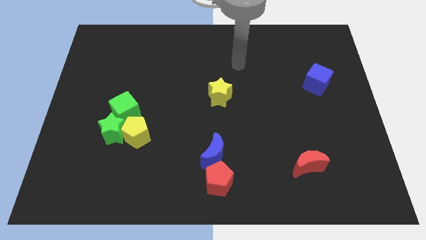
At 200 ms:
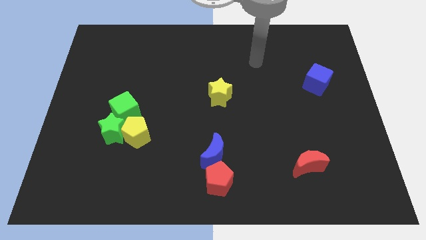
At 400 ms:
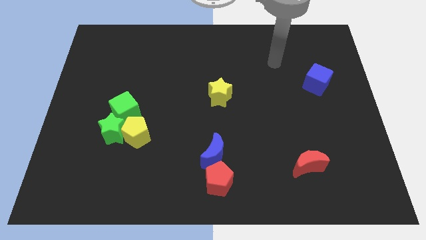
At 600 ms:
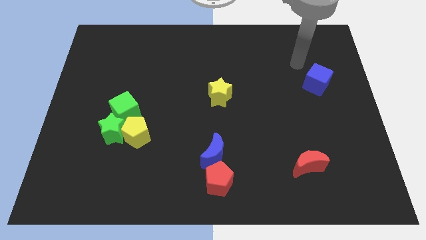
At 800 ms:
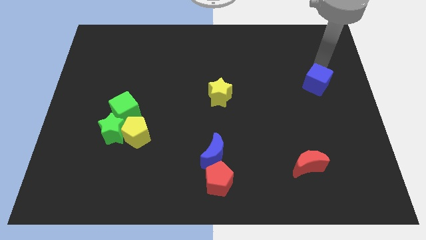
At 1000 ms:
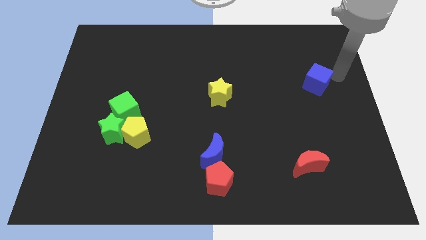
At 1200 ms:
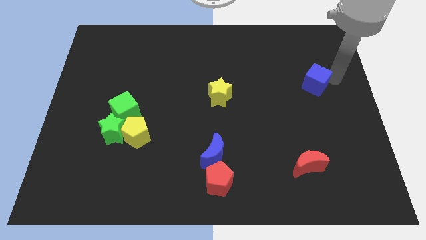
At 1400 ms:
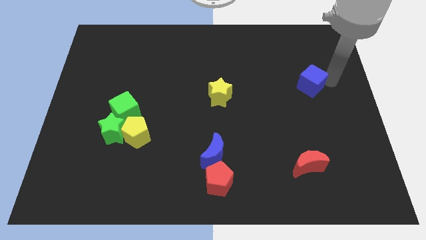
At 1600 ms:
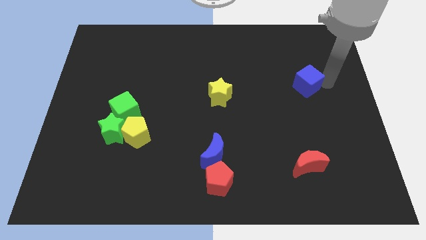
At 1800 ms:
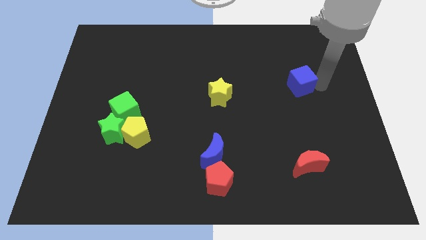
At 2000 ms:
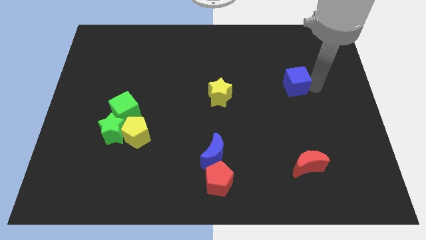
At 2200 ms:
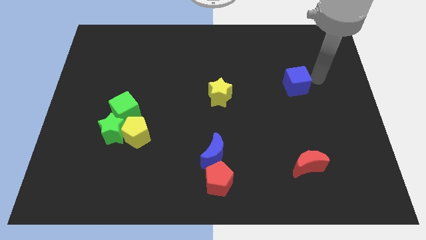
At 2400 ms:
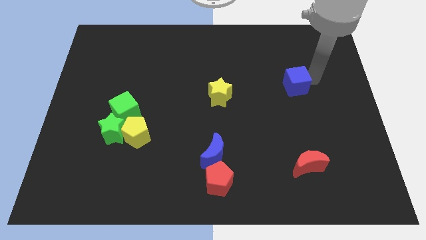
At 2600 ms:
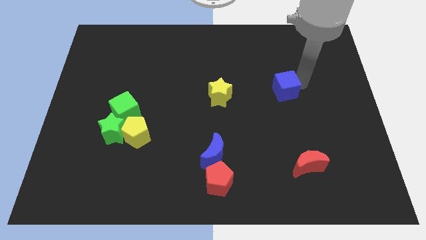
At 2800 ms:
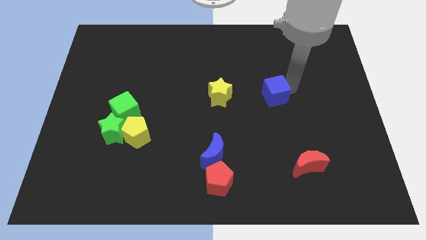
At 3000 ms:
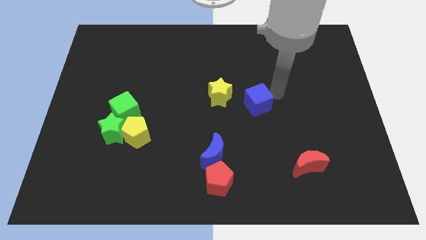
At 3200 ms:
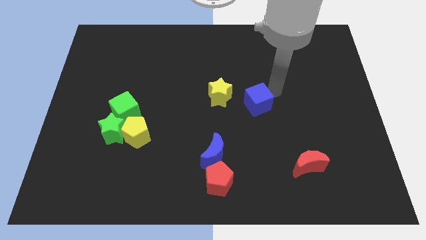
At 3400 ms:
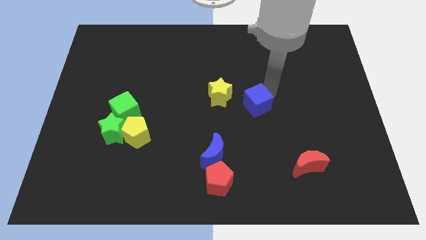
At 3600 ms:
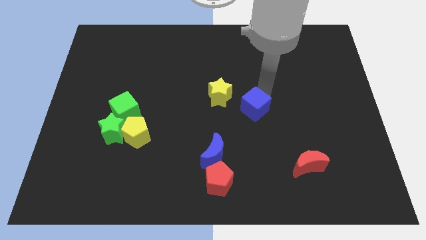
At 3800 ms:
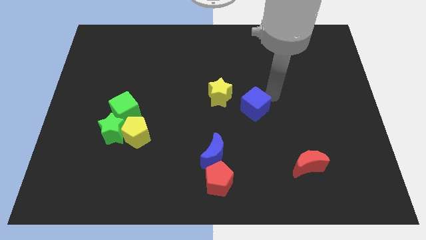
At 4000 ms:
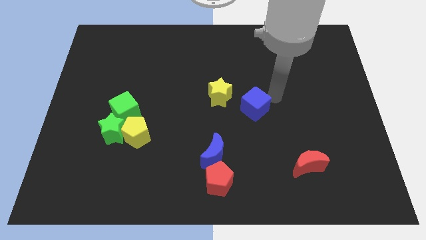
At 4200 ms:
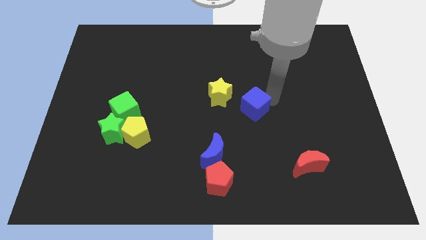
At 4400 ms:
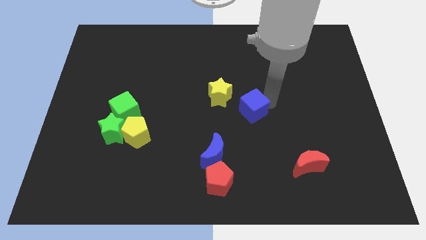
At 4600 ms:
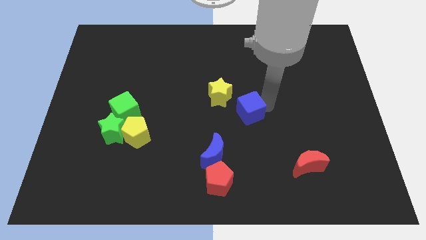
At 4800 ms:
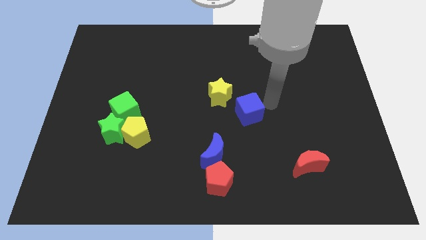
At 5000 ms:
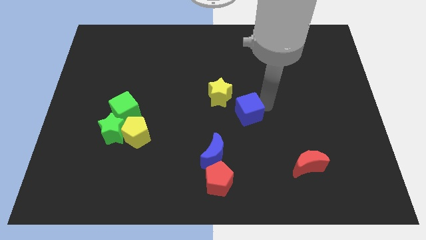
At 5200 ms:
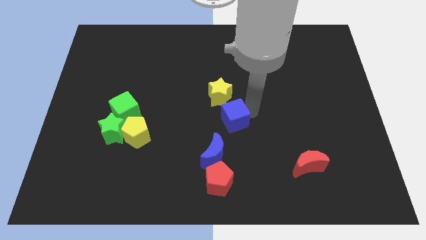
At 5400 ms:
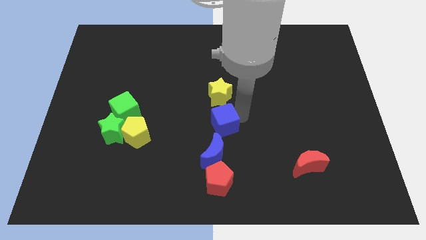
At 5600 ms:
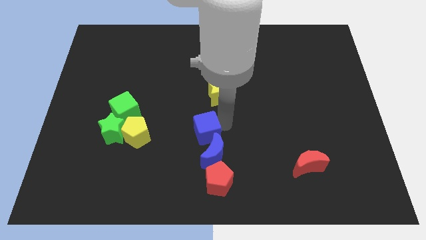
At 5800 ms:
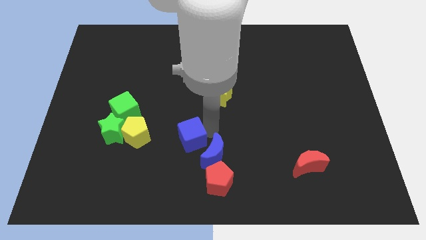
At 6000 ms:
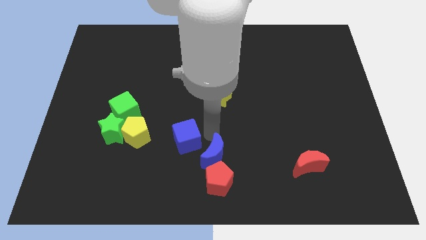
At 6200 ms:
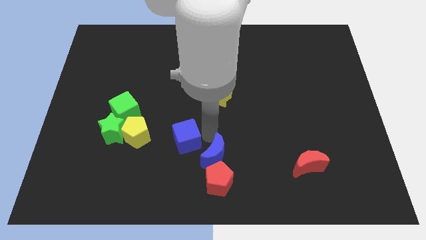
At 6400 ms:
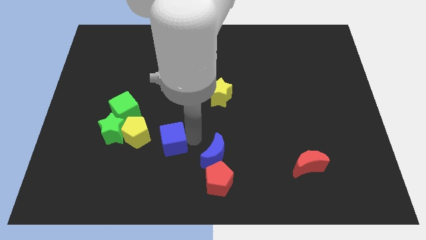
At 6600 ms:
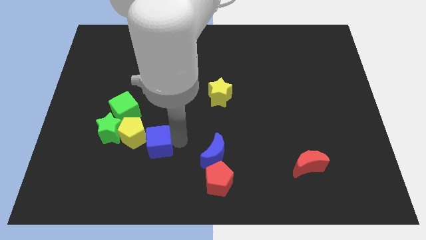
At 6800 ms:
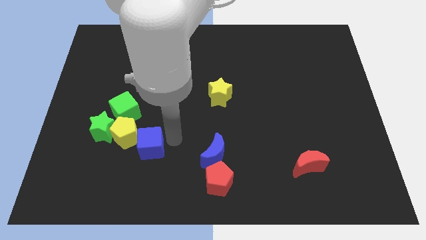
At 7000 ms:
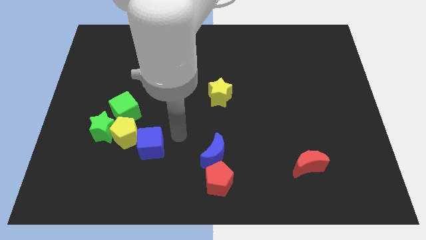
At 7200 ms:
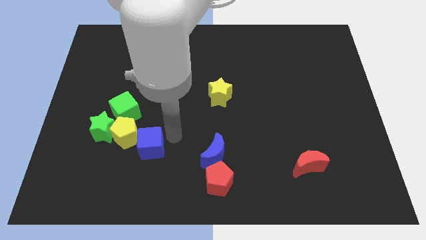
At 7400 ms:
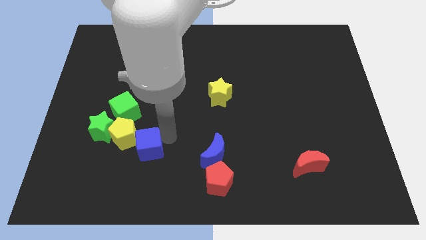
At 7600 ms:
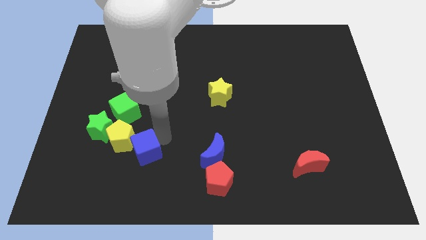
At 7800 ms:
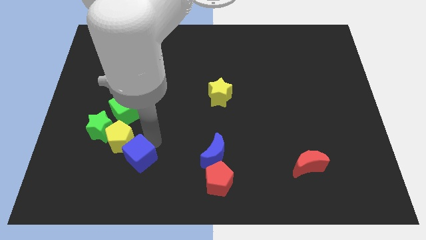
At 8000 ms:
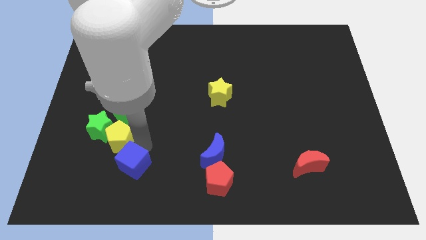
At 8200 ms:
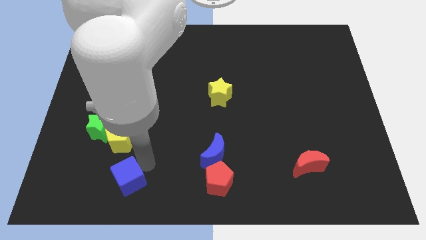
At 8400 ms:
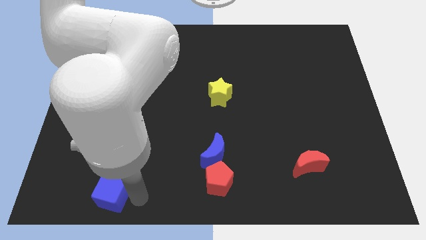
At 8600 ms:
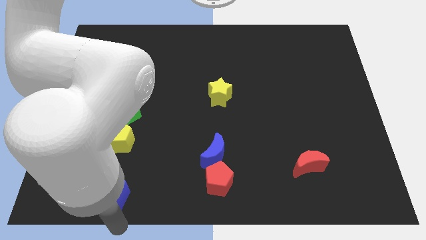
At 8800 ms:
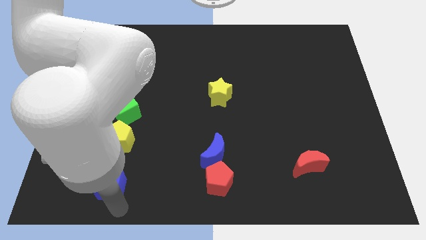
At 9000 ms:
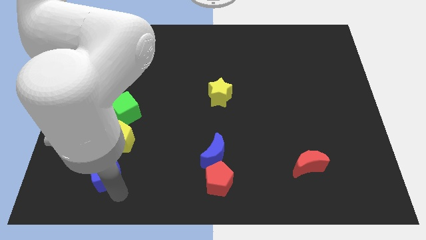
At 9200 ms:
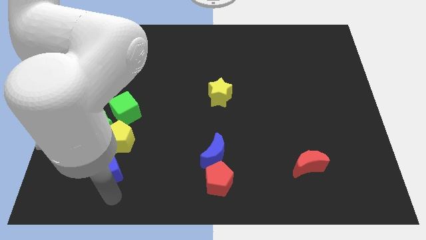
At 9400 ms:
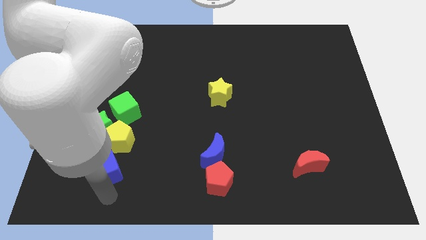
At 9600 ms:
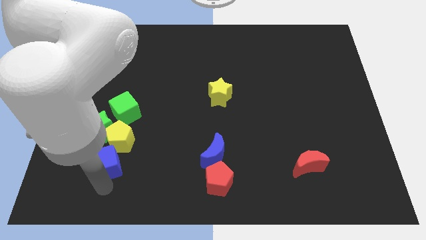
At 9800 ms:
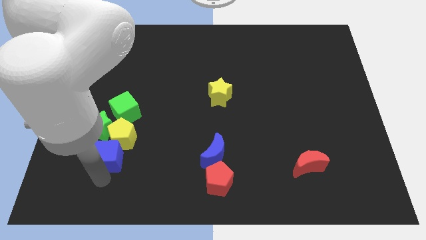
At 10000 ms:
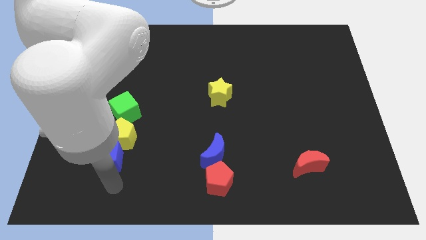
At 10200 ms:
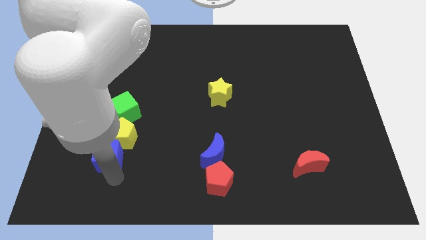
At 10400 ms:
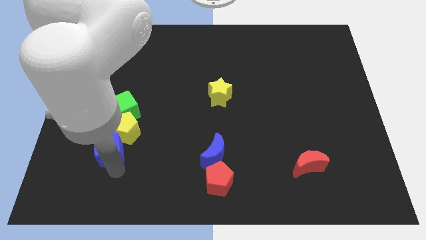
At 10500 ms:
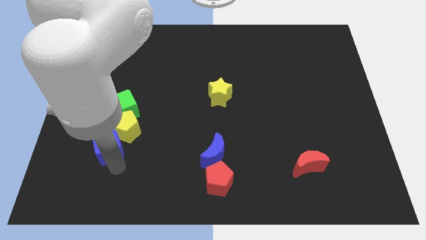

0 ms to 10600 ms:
slide the blue cube next to the green star

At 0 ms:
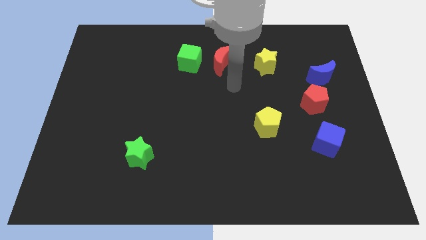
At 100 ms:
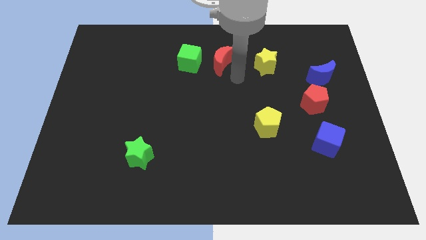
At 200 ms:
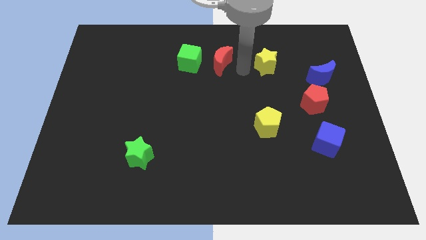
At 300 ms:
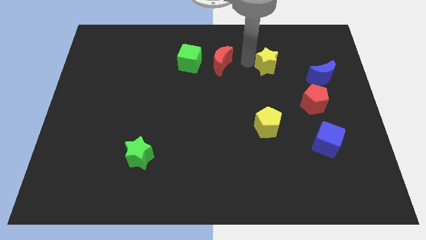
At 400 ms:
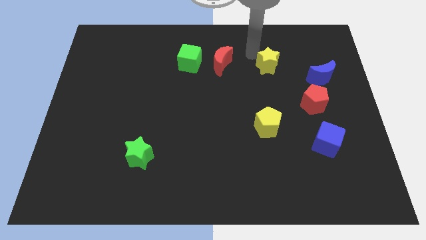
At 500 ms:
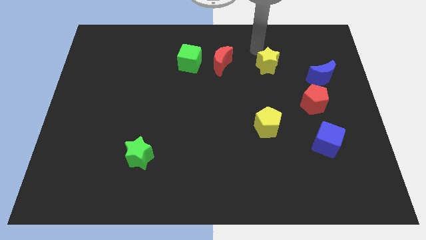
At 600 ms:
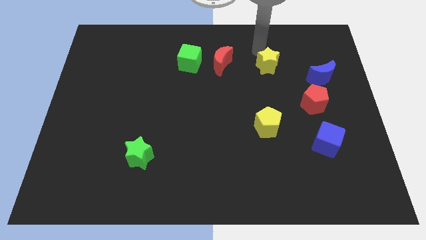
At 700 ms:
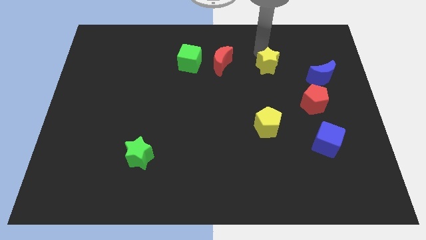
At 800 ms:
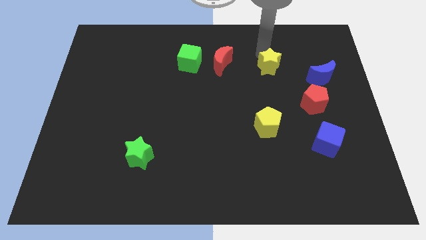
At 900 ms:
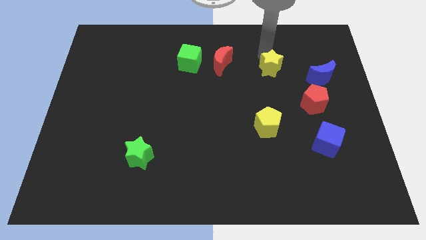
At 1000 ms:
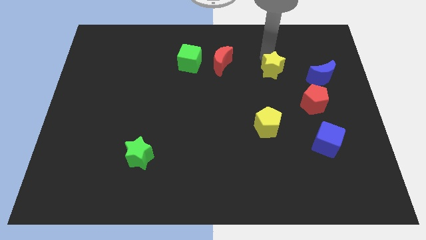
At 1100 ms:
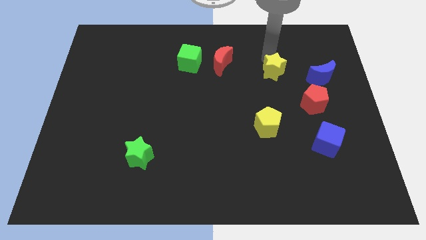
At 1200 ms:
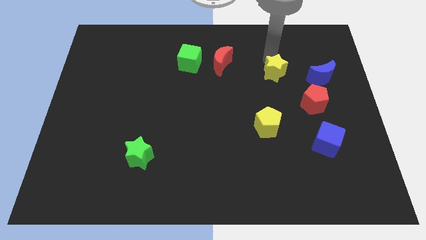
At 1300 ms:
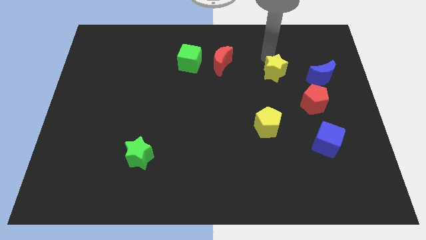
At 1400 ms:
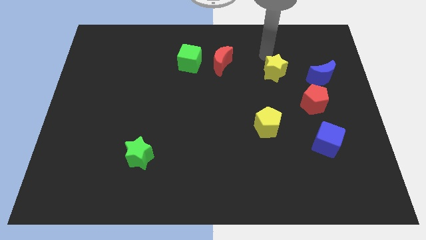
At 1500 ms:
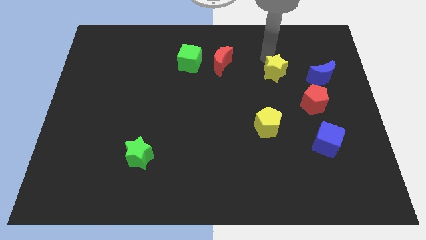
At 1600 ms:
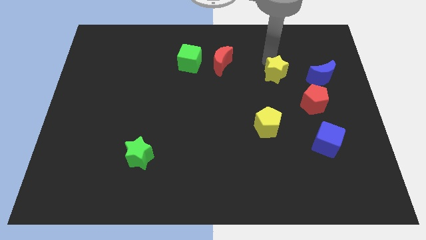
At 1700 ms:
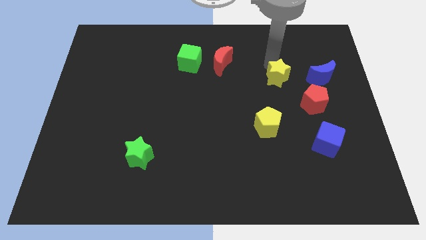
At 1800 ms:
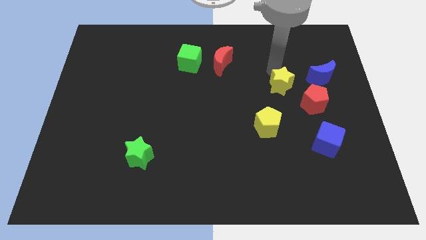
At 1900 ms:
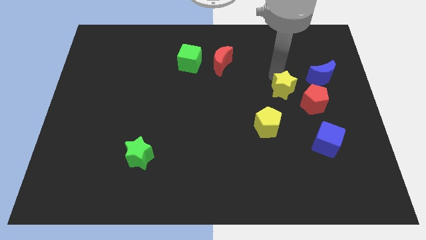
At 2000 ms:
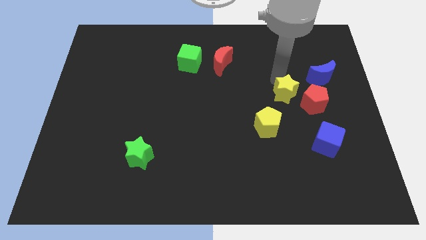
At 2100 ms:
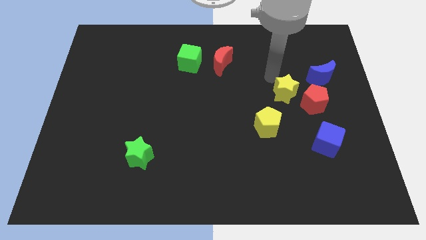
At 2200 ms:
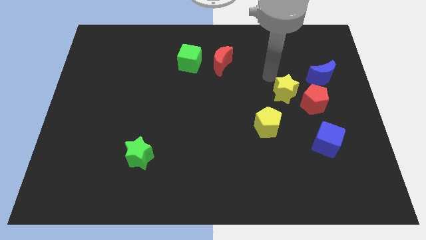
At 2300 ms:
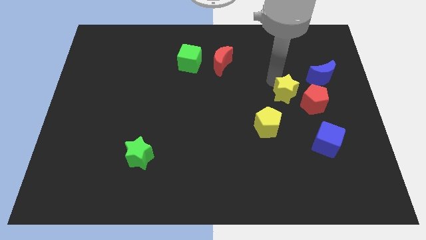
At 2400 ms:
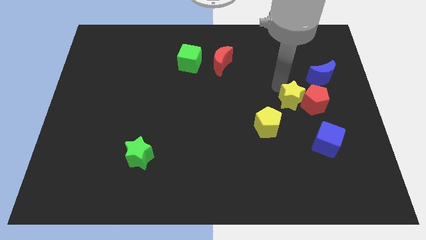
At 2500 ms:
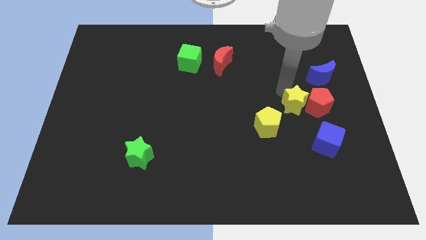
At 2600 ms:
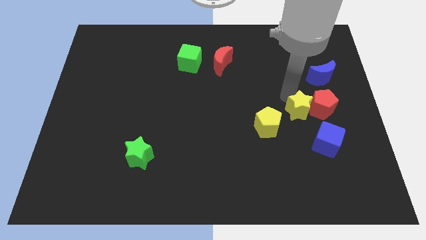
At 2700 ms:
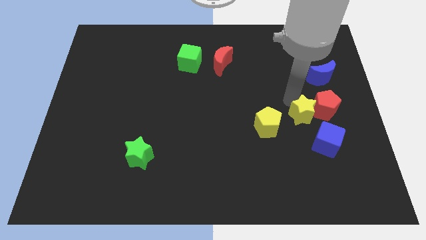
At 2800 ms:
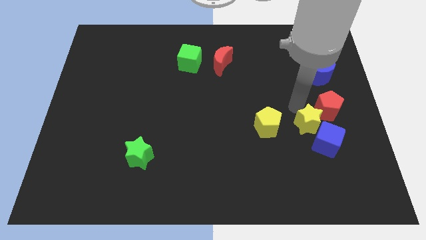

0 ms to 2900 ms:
move the yellow star next to the blue cube

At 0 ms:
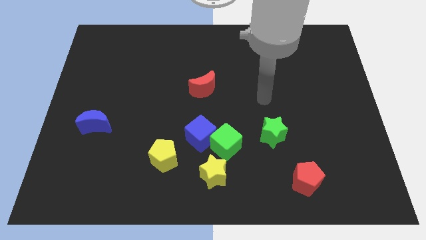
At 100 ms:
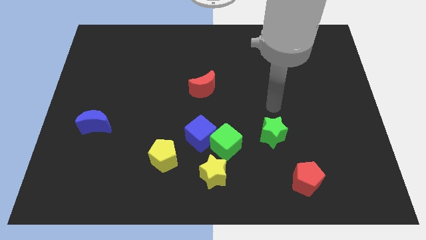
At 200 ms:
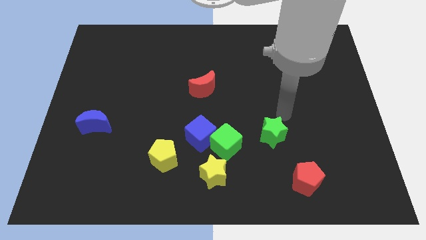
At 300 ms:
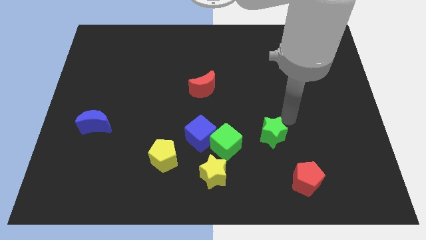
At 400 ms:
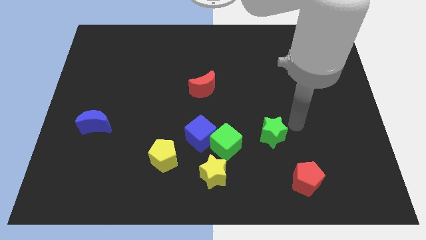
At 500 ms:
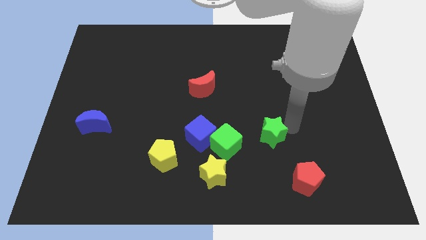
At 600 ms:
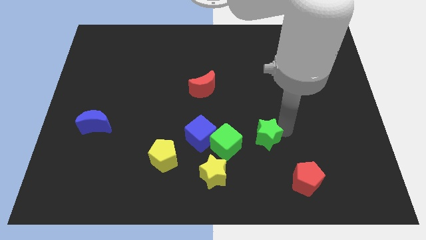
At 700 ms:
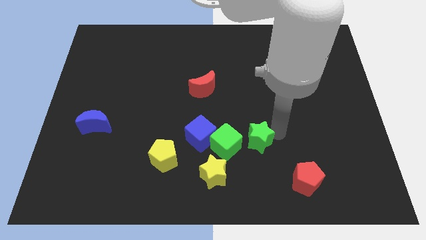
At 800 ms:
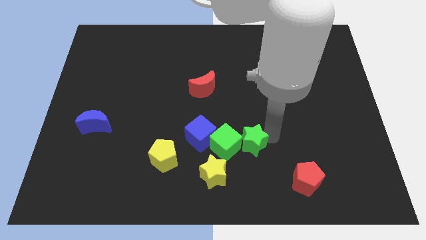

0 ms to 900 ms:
push the green star next to the green cube
